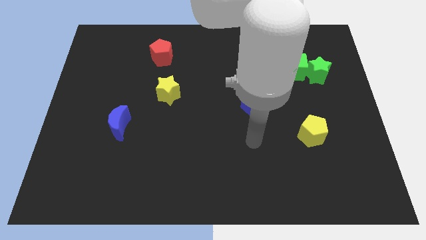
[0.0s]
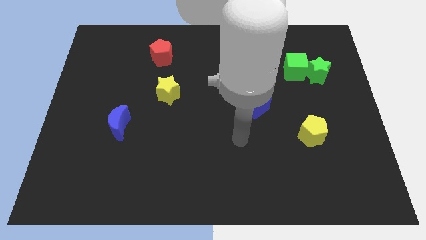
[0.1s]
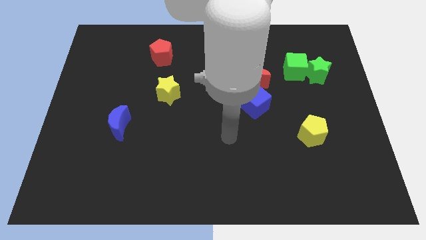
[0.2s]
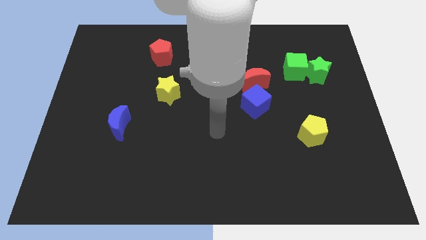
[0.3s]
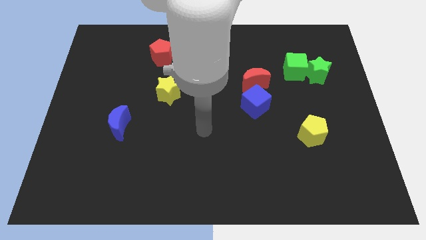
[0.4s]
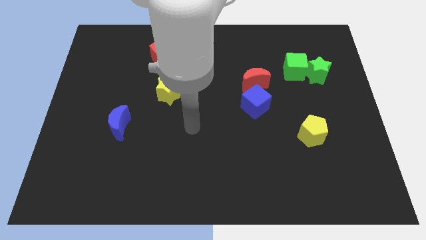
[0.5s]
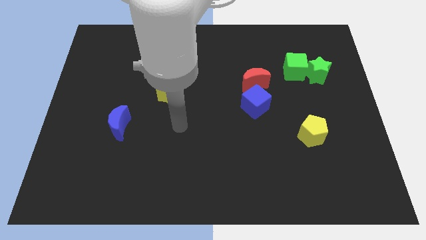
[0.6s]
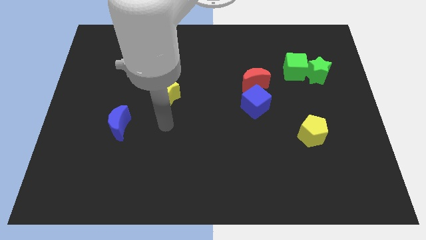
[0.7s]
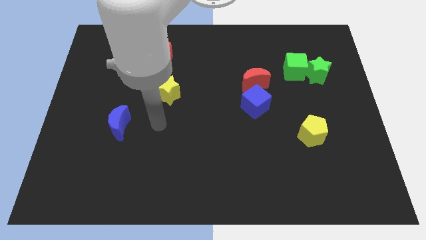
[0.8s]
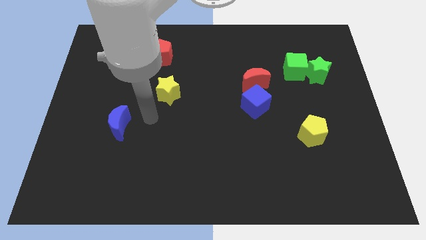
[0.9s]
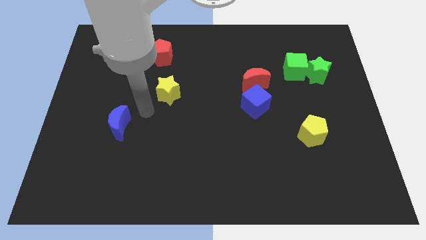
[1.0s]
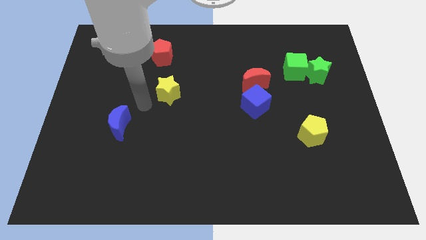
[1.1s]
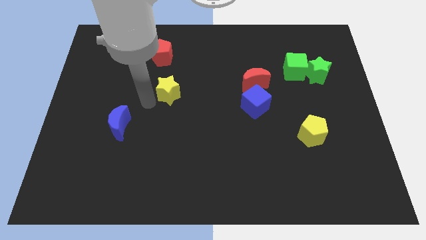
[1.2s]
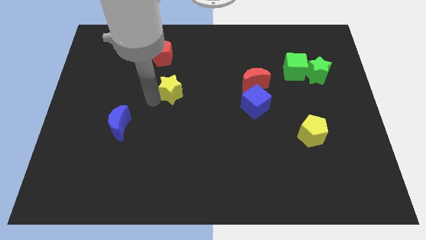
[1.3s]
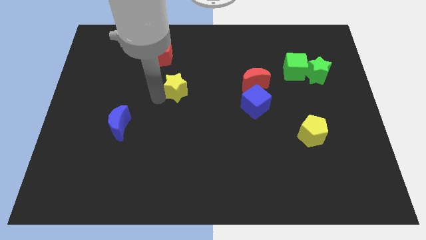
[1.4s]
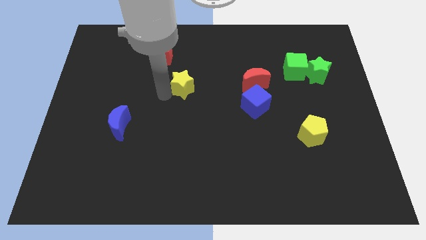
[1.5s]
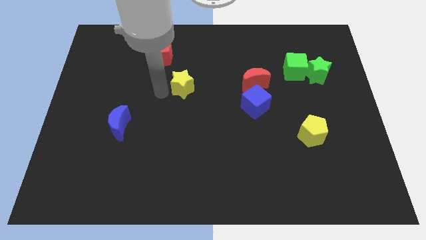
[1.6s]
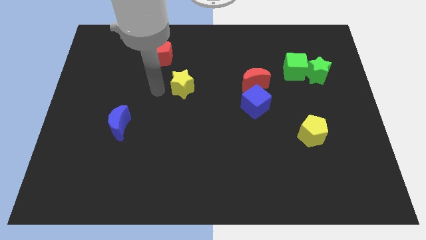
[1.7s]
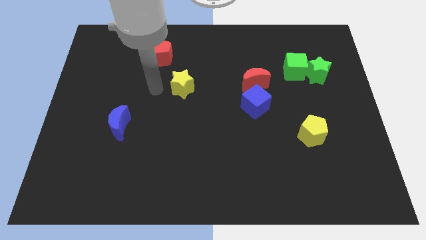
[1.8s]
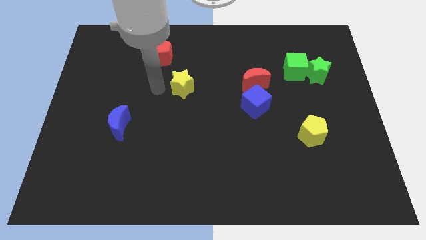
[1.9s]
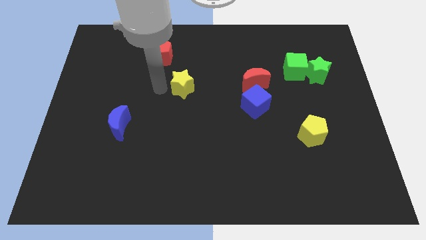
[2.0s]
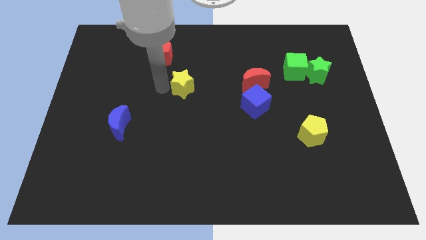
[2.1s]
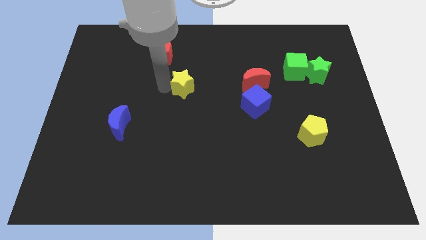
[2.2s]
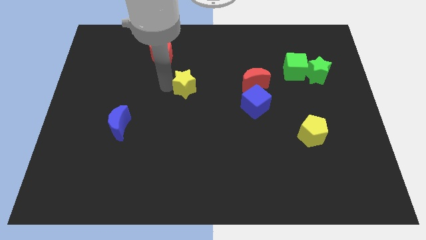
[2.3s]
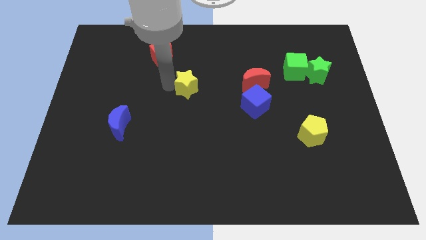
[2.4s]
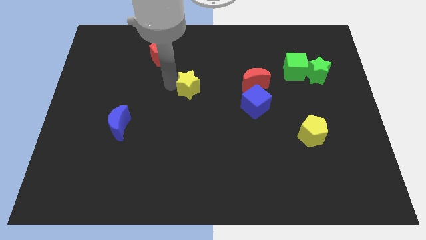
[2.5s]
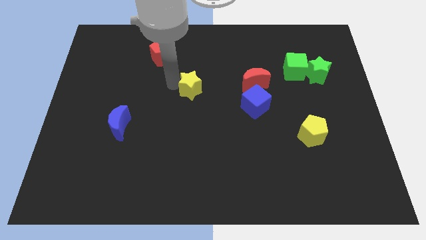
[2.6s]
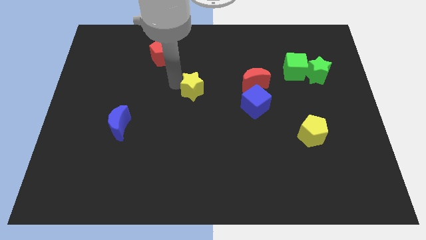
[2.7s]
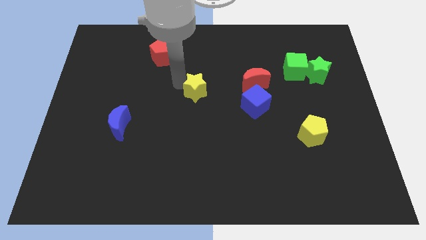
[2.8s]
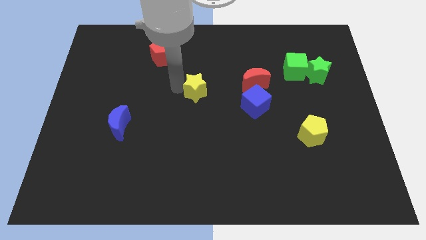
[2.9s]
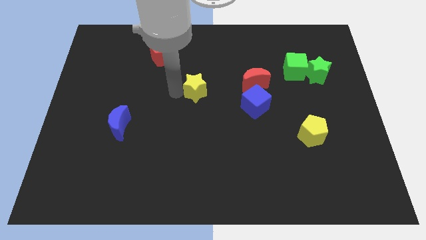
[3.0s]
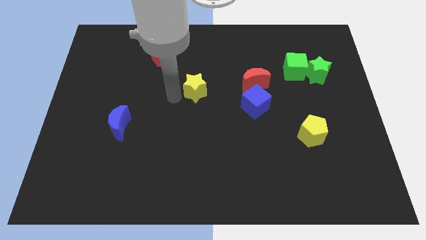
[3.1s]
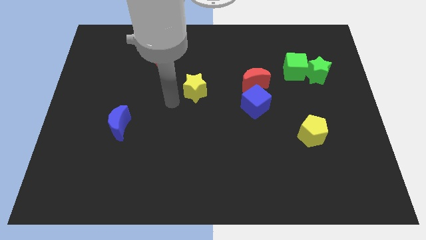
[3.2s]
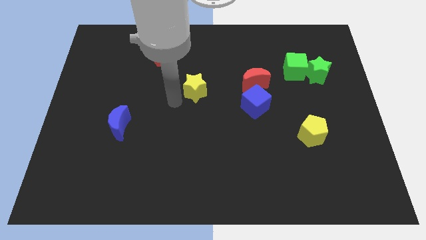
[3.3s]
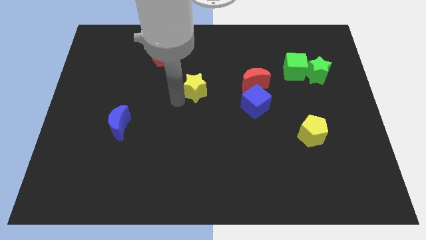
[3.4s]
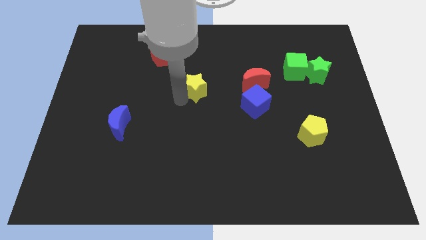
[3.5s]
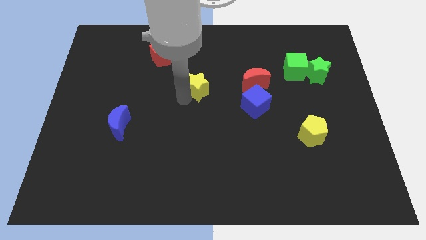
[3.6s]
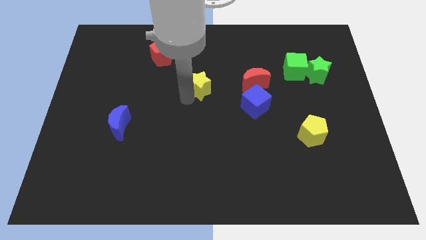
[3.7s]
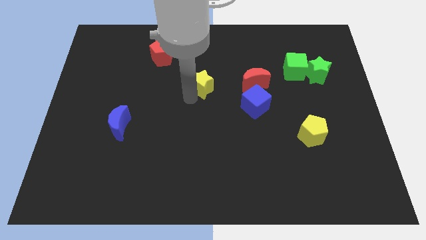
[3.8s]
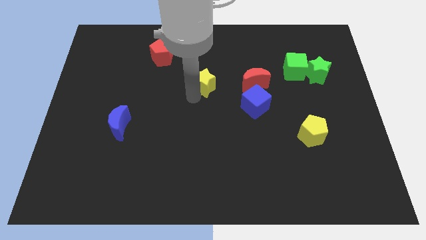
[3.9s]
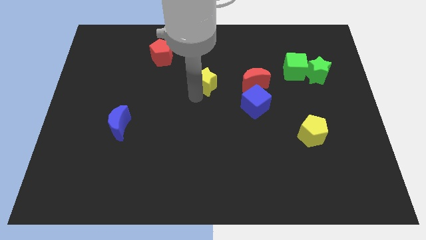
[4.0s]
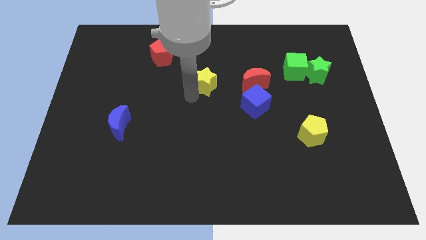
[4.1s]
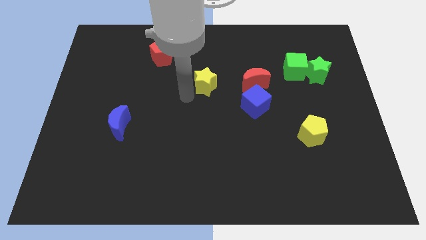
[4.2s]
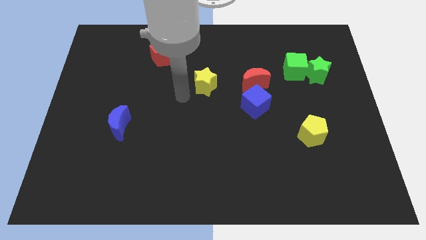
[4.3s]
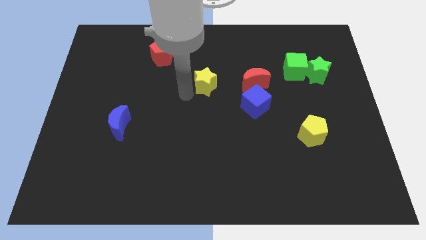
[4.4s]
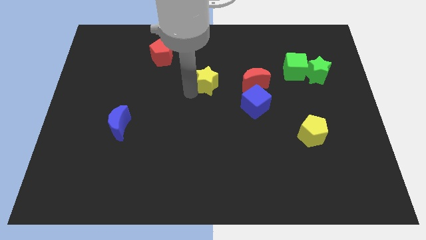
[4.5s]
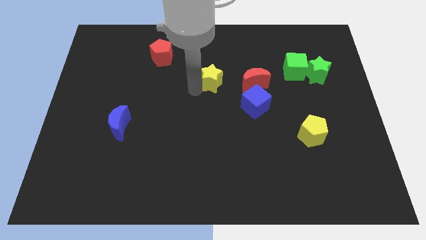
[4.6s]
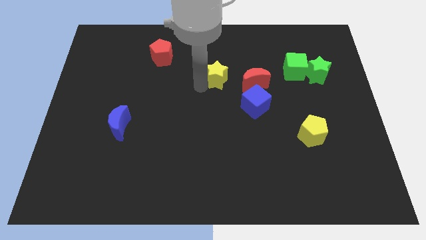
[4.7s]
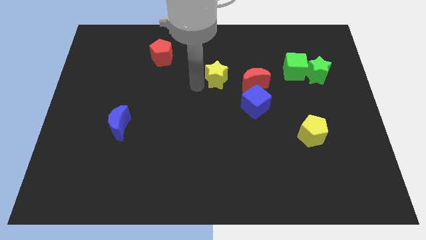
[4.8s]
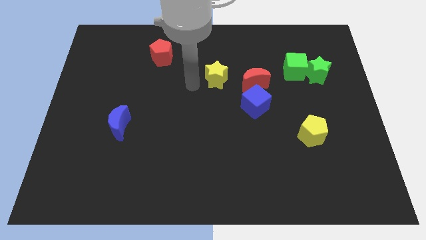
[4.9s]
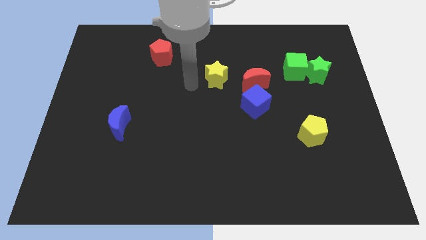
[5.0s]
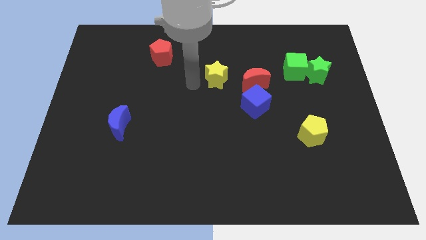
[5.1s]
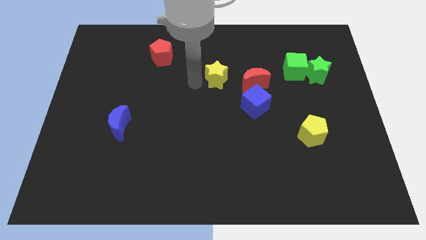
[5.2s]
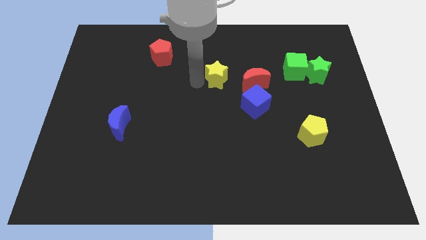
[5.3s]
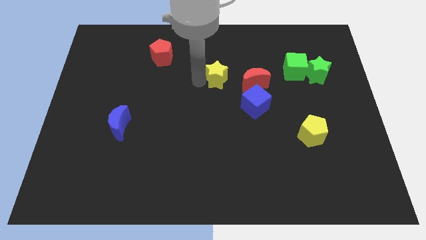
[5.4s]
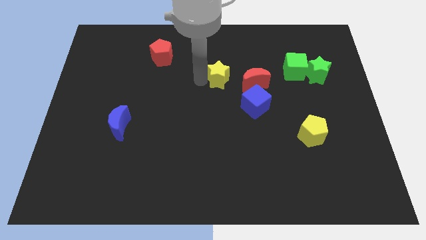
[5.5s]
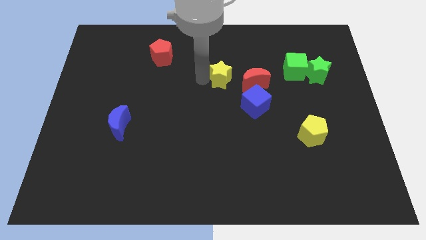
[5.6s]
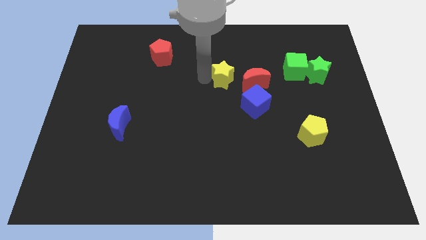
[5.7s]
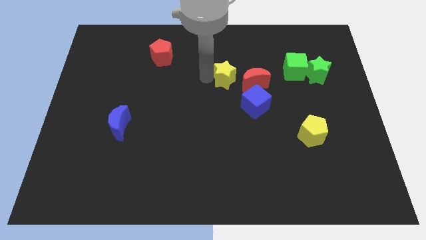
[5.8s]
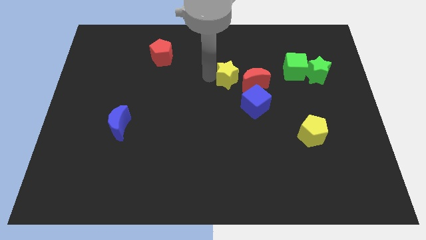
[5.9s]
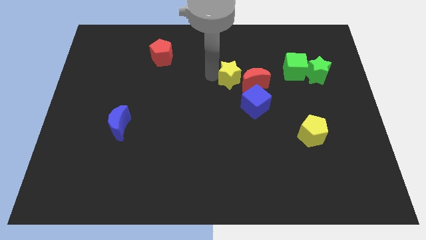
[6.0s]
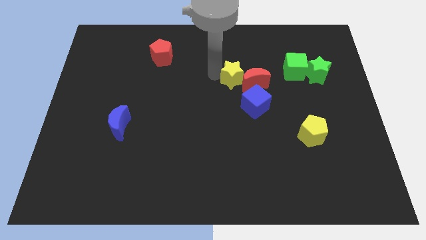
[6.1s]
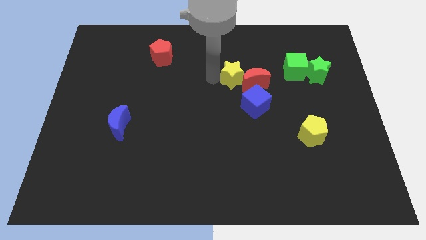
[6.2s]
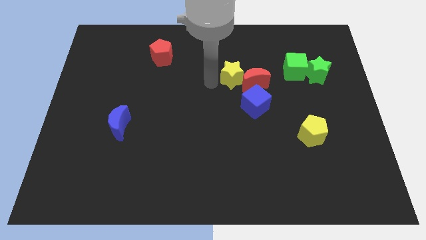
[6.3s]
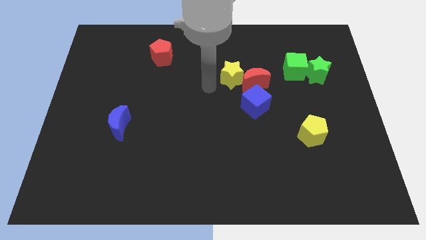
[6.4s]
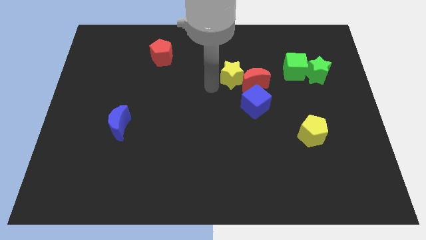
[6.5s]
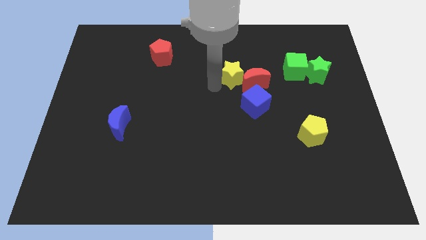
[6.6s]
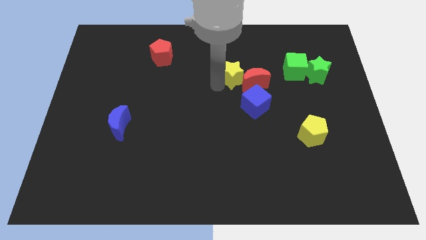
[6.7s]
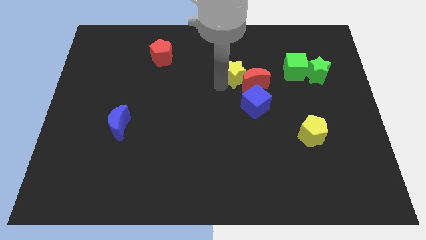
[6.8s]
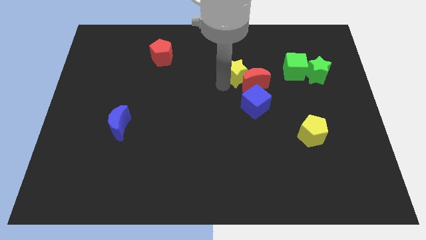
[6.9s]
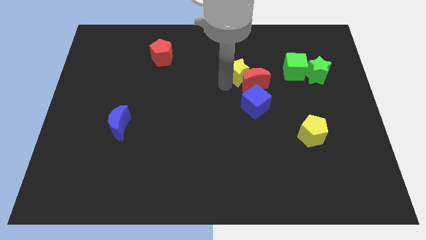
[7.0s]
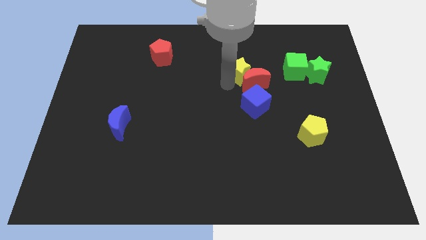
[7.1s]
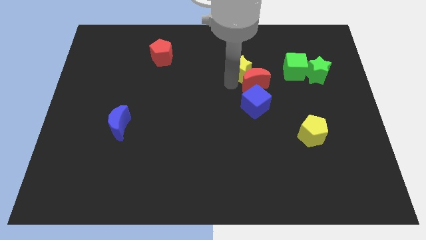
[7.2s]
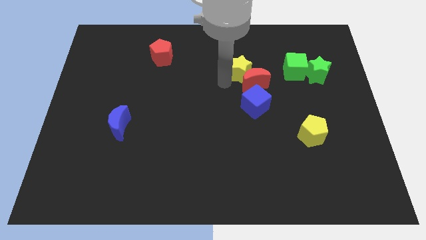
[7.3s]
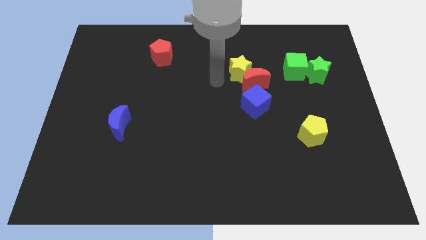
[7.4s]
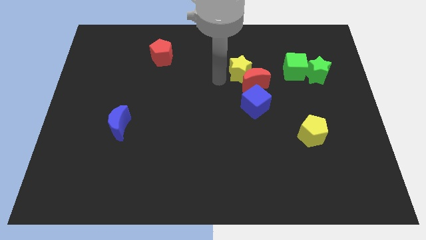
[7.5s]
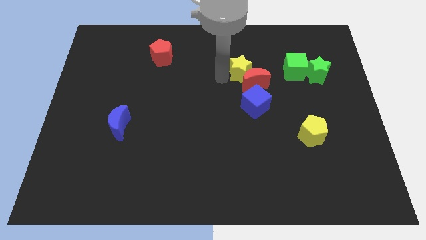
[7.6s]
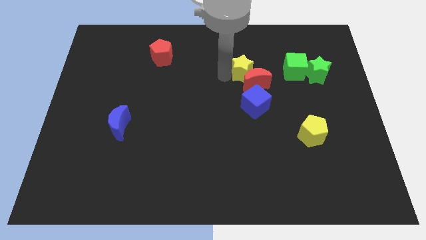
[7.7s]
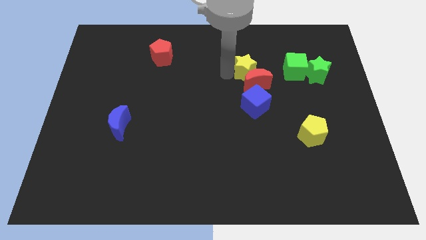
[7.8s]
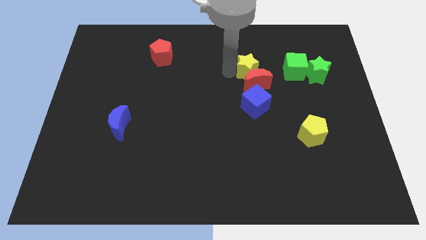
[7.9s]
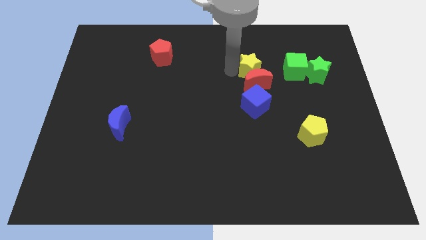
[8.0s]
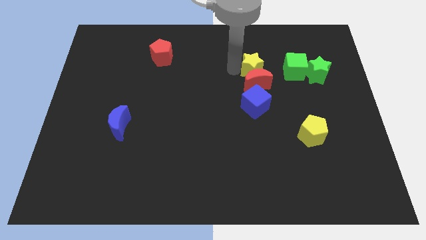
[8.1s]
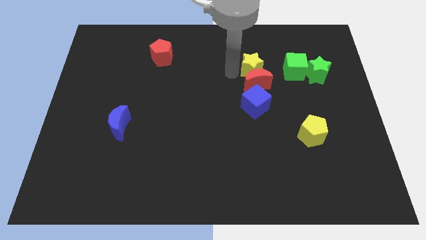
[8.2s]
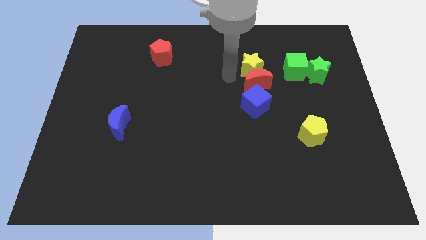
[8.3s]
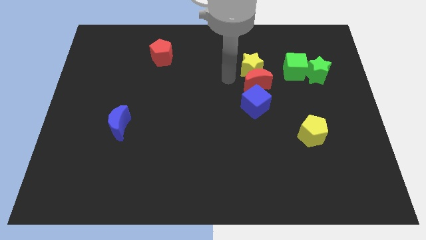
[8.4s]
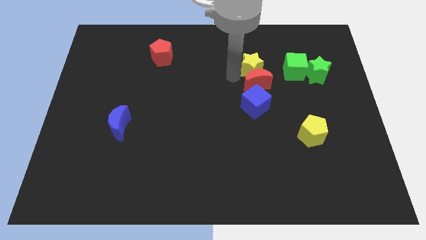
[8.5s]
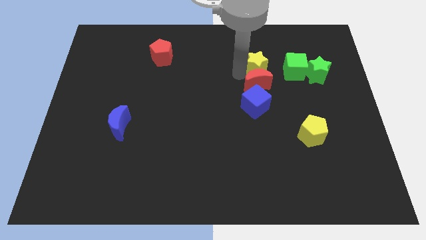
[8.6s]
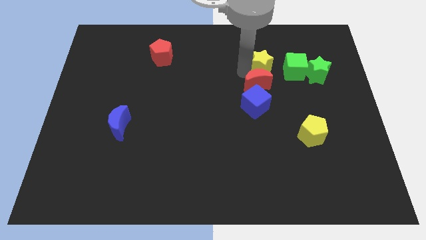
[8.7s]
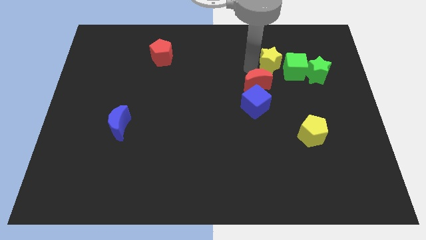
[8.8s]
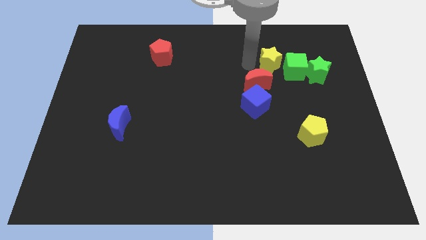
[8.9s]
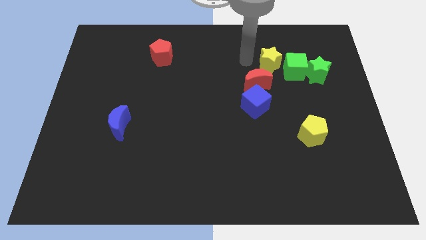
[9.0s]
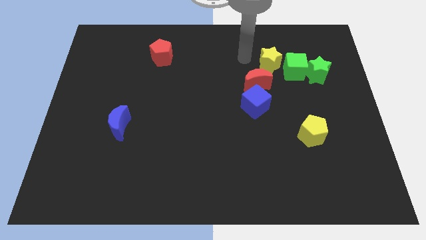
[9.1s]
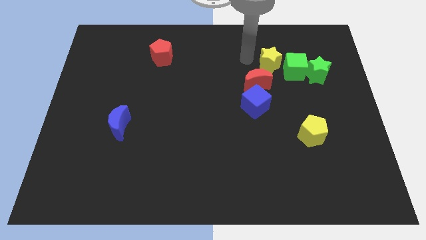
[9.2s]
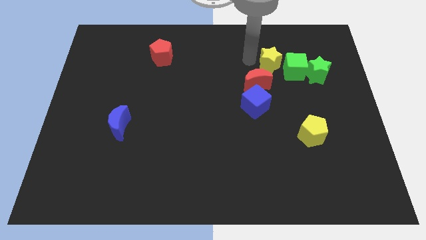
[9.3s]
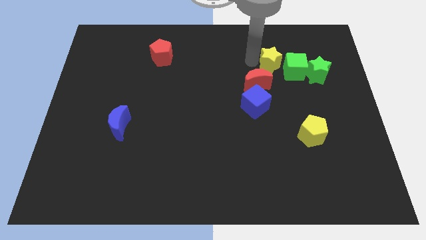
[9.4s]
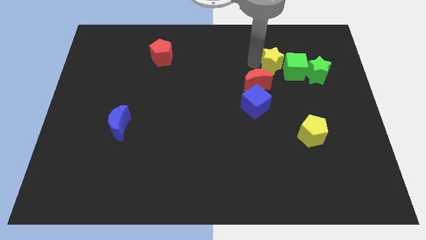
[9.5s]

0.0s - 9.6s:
put the yellow star towards the green cube
